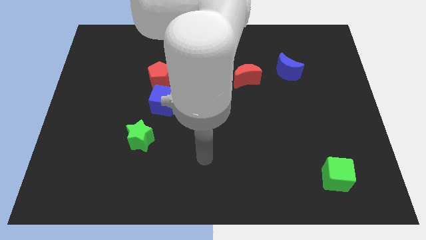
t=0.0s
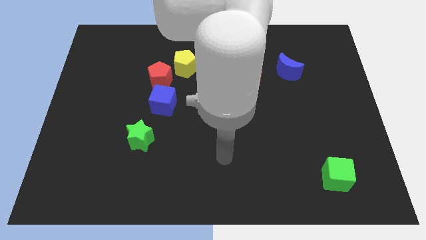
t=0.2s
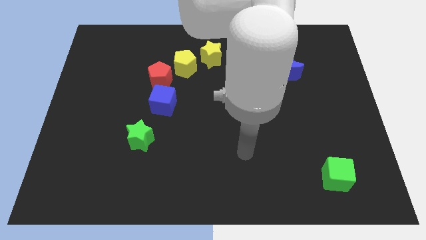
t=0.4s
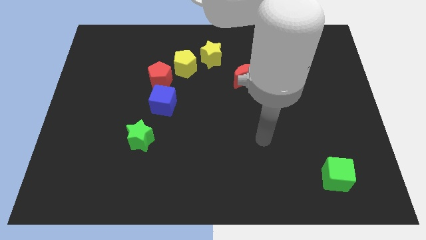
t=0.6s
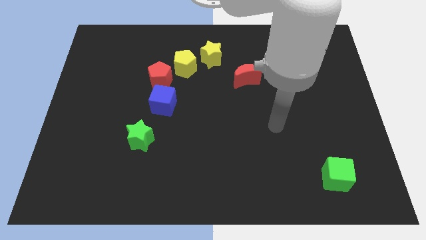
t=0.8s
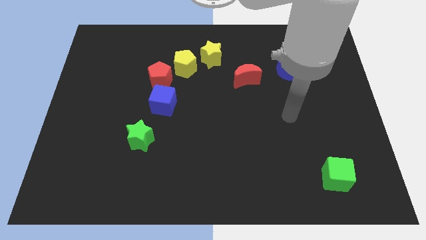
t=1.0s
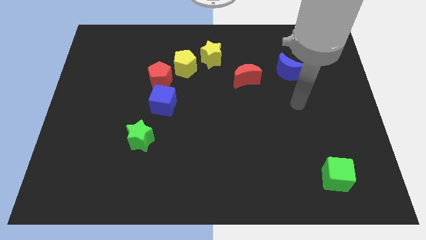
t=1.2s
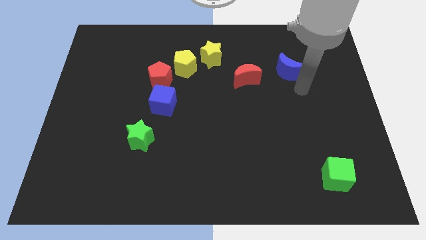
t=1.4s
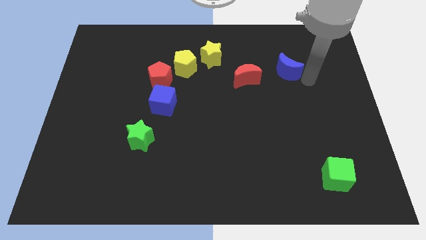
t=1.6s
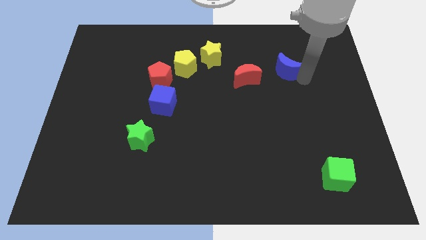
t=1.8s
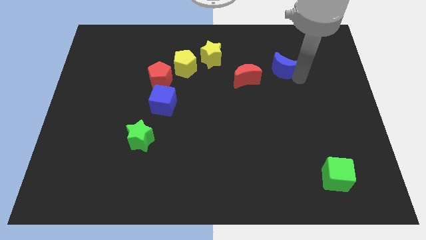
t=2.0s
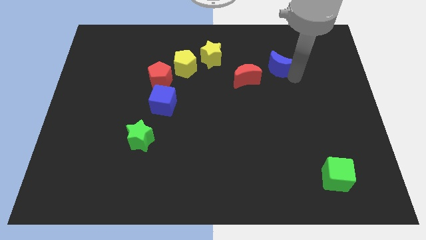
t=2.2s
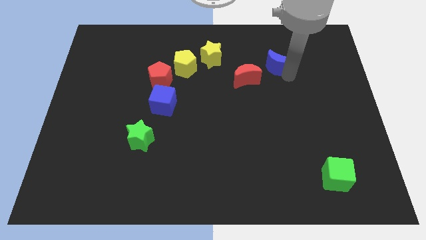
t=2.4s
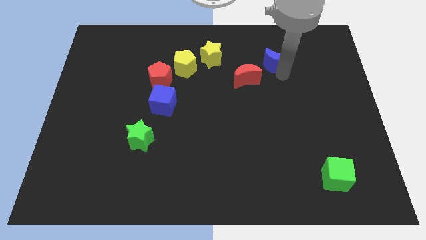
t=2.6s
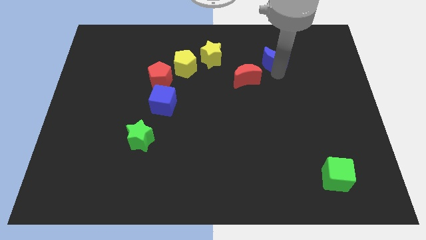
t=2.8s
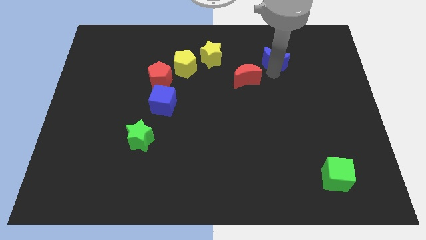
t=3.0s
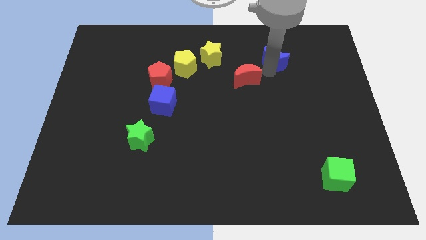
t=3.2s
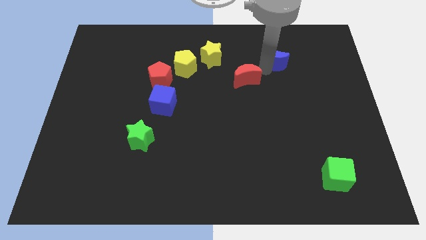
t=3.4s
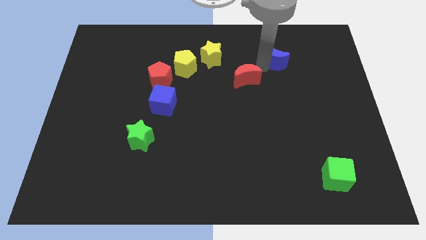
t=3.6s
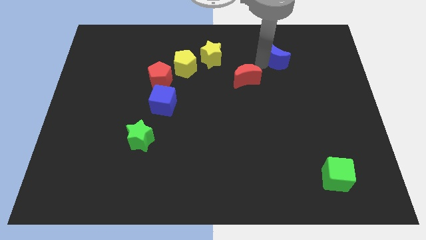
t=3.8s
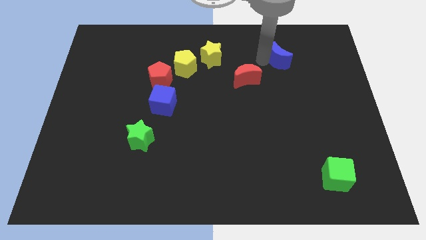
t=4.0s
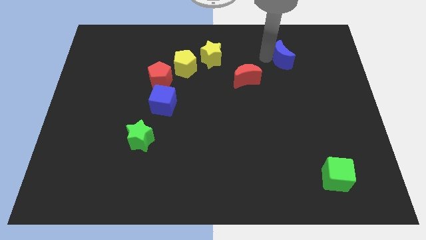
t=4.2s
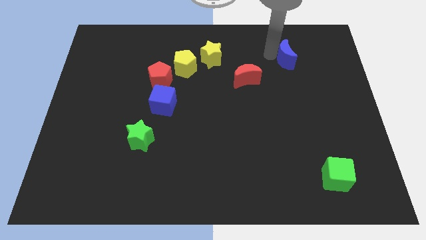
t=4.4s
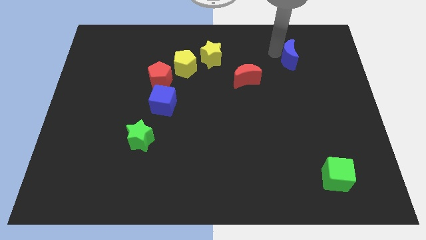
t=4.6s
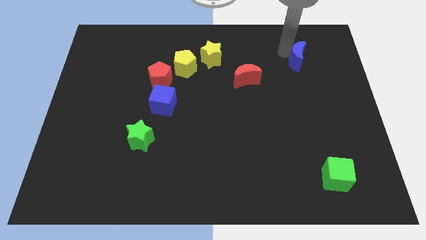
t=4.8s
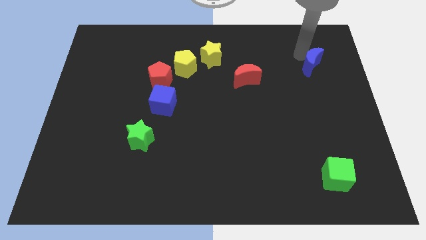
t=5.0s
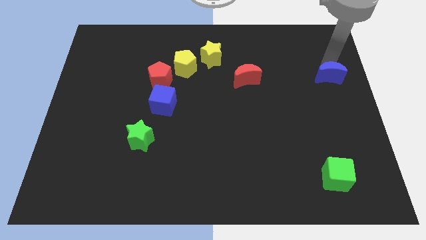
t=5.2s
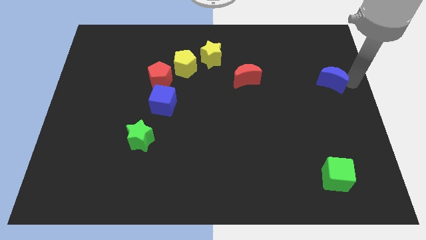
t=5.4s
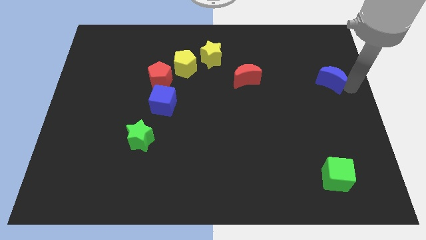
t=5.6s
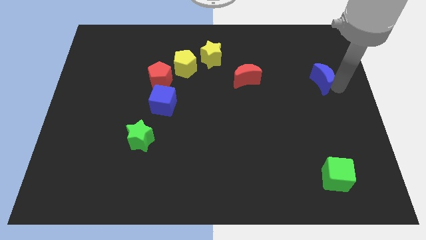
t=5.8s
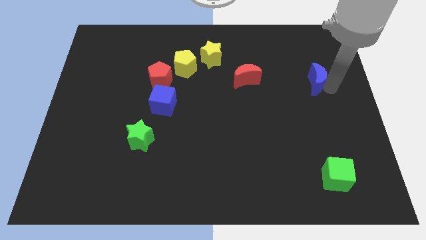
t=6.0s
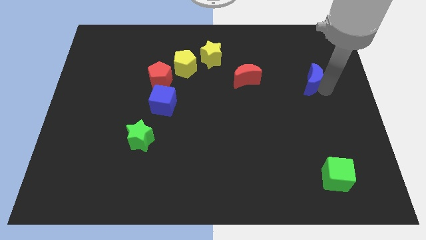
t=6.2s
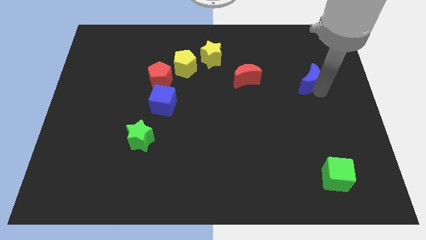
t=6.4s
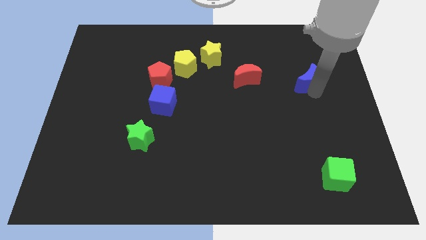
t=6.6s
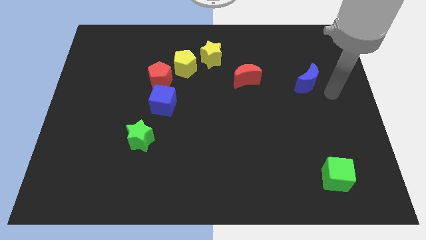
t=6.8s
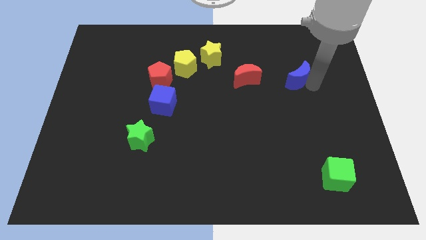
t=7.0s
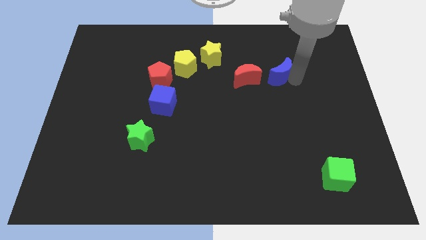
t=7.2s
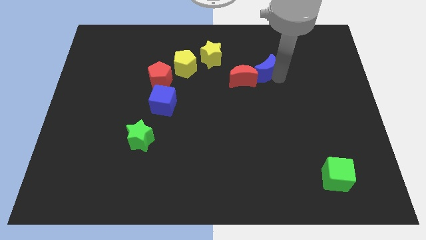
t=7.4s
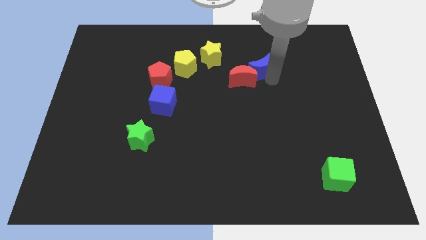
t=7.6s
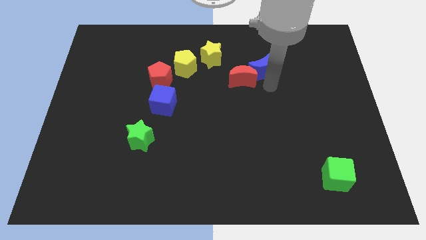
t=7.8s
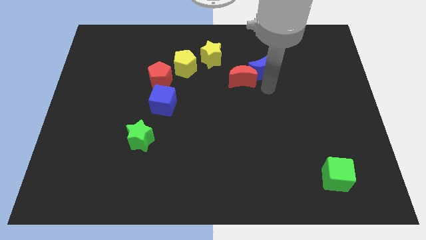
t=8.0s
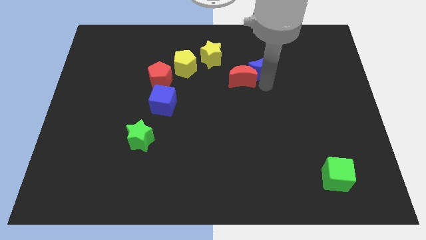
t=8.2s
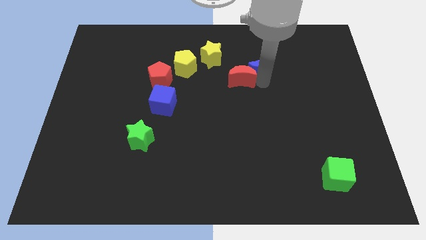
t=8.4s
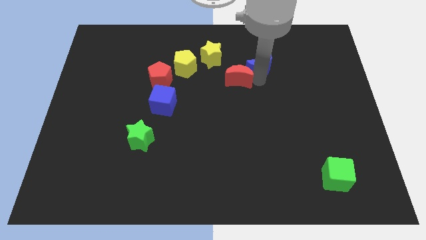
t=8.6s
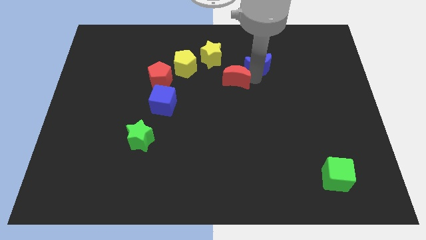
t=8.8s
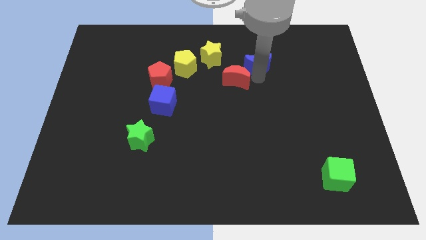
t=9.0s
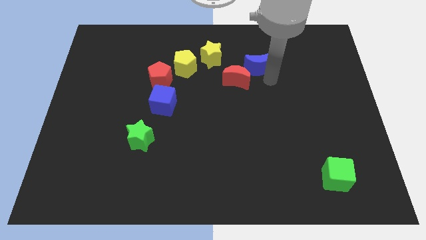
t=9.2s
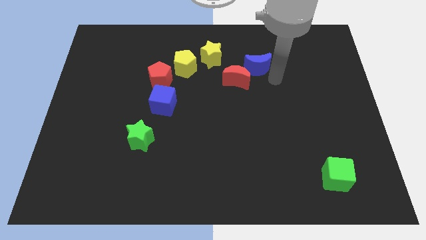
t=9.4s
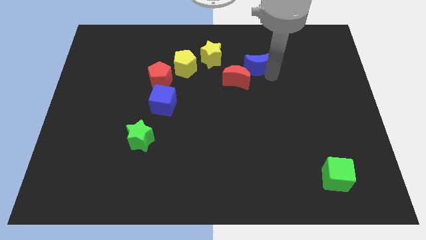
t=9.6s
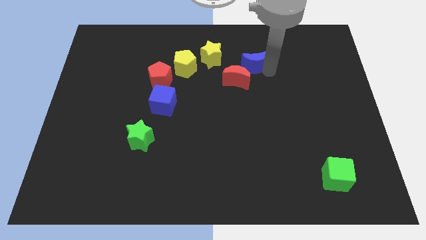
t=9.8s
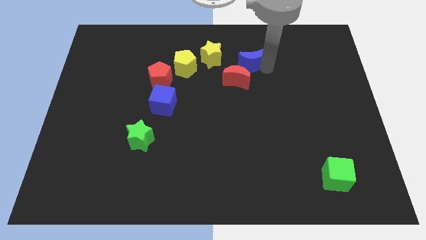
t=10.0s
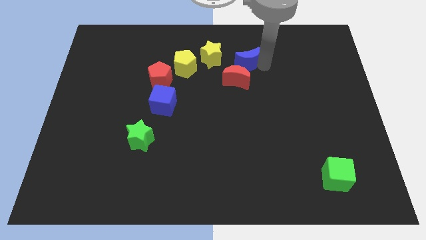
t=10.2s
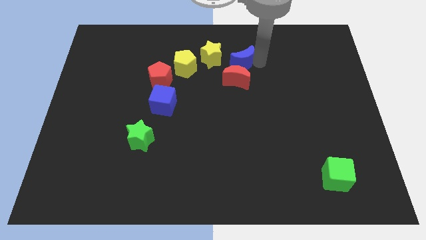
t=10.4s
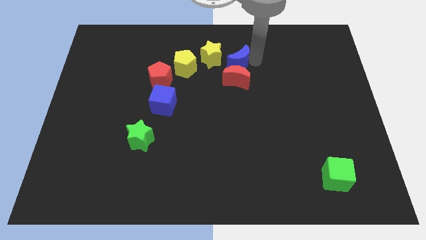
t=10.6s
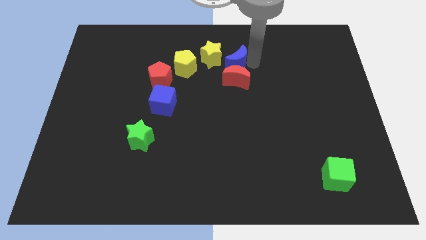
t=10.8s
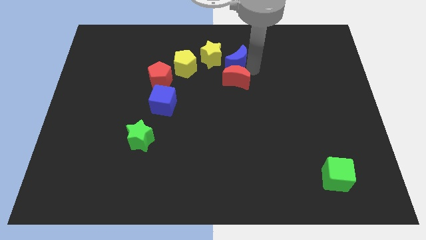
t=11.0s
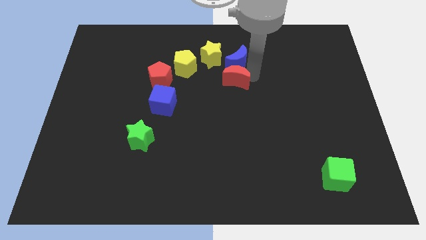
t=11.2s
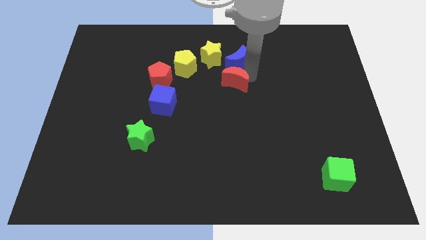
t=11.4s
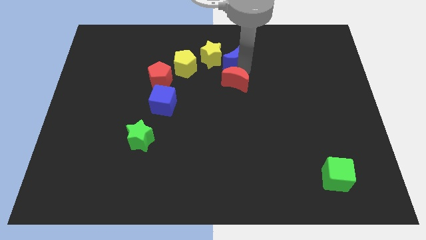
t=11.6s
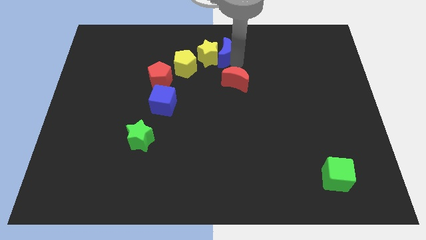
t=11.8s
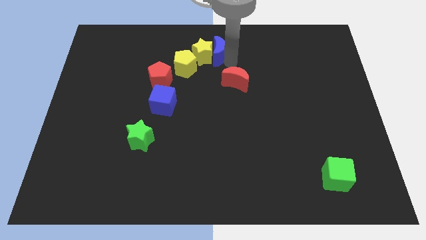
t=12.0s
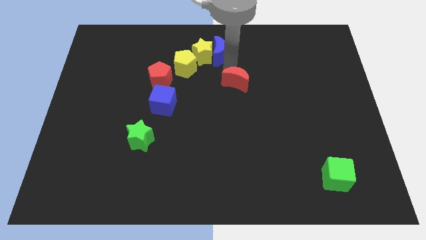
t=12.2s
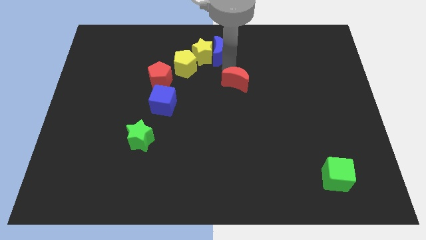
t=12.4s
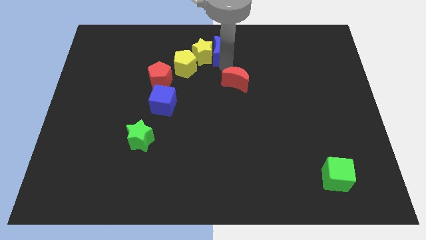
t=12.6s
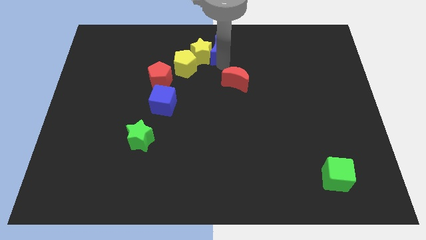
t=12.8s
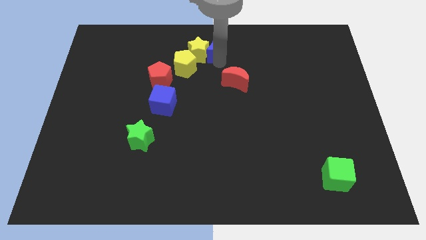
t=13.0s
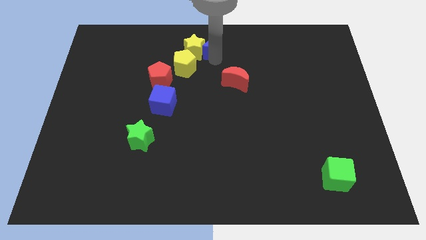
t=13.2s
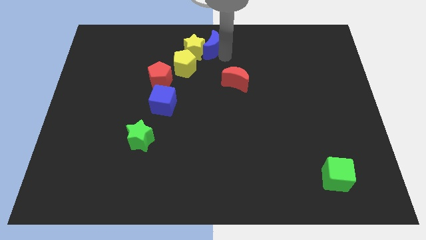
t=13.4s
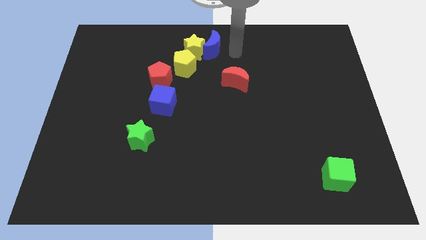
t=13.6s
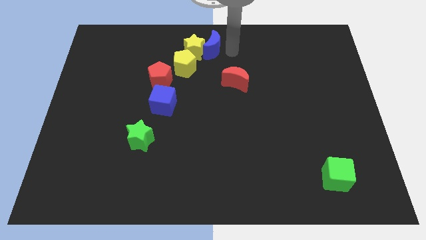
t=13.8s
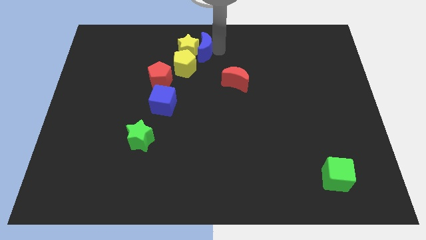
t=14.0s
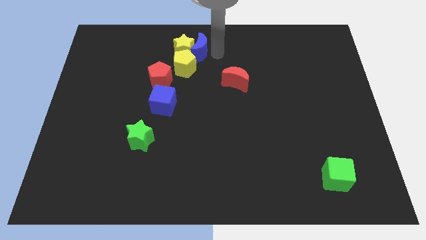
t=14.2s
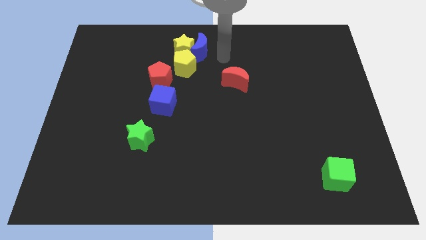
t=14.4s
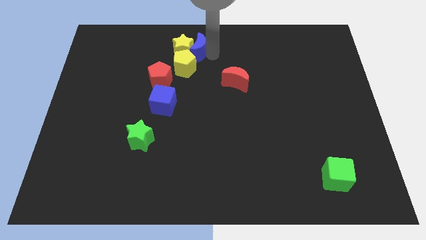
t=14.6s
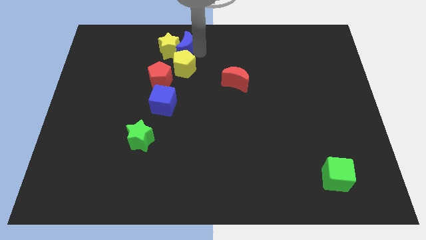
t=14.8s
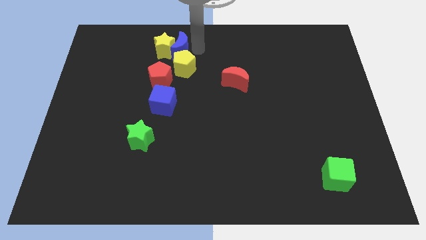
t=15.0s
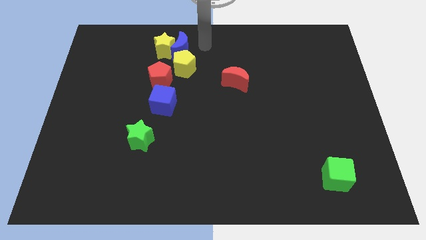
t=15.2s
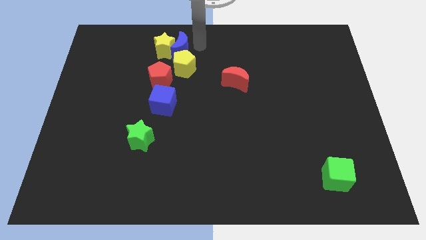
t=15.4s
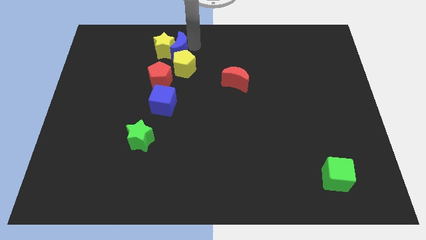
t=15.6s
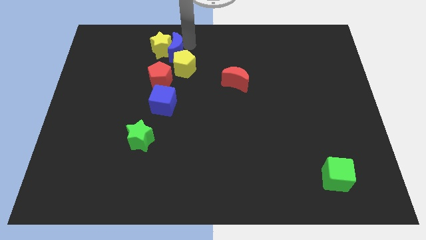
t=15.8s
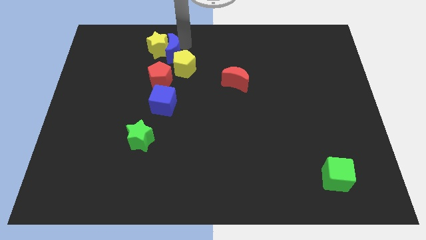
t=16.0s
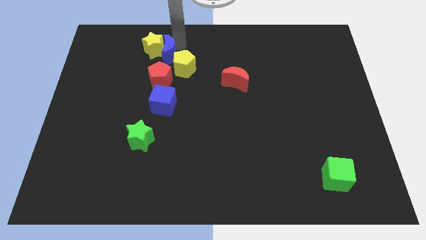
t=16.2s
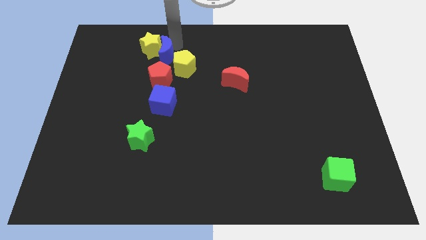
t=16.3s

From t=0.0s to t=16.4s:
move the blue moon left of the yellow pentagon
